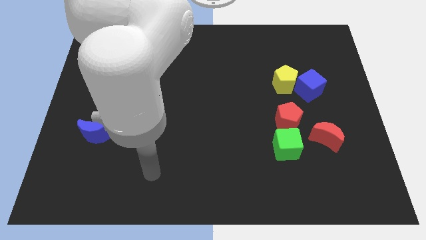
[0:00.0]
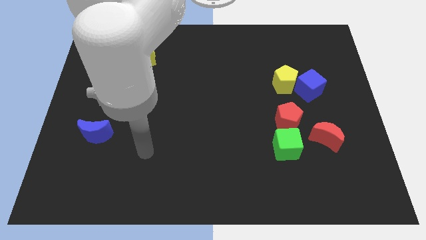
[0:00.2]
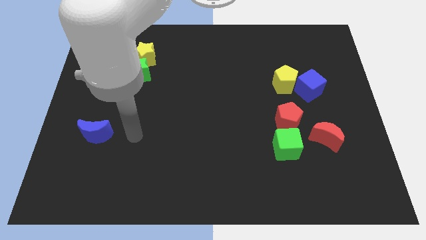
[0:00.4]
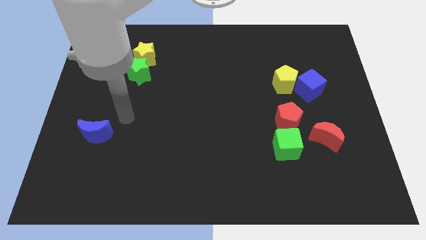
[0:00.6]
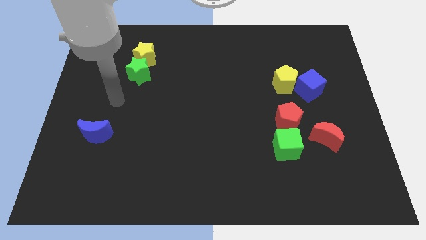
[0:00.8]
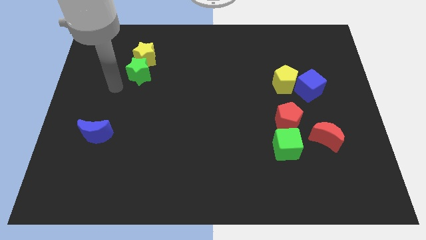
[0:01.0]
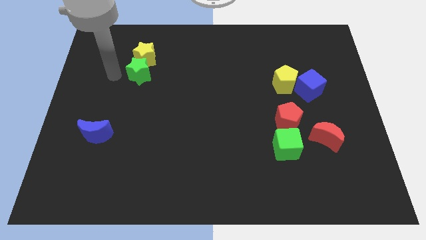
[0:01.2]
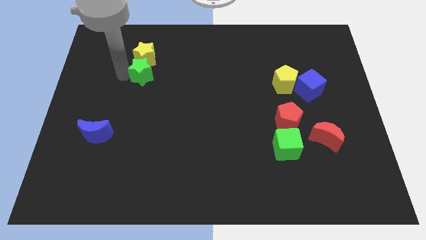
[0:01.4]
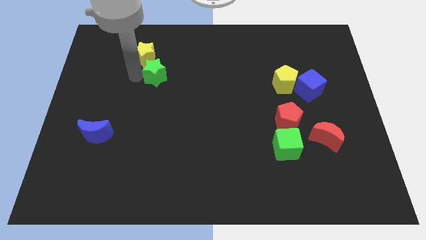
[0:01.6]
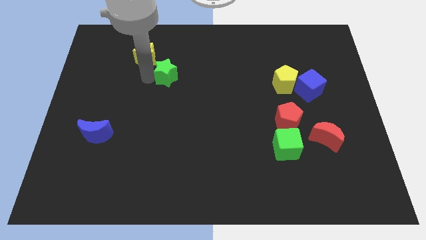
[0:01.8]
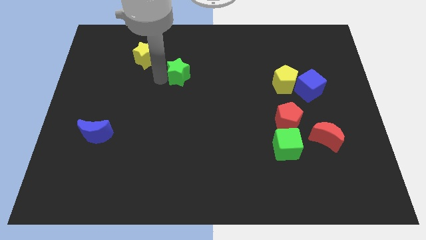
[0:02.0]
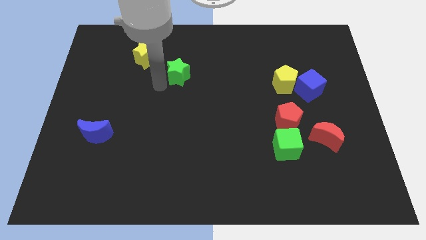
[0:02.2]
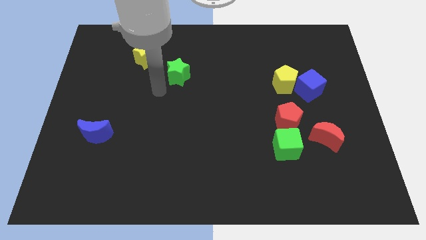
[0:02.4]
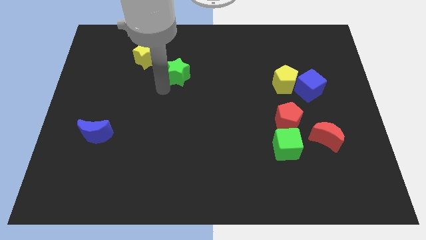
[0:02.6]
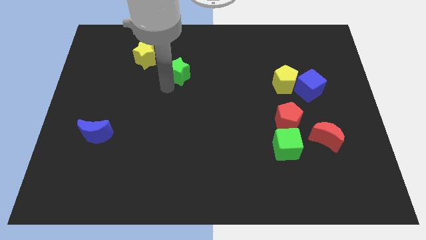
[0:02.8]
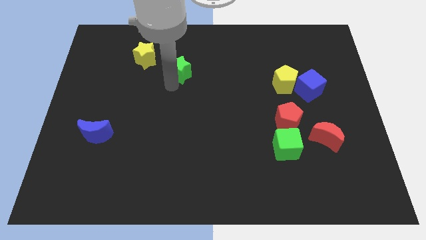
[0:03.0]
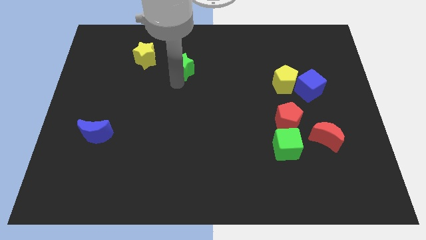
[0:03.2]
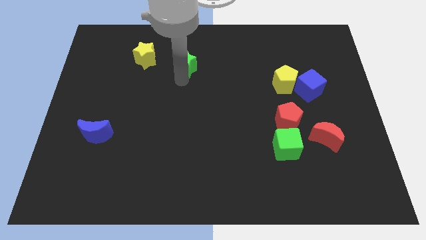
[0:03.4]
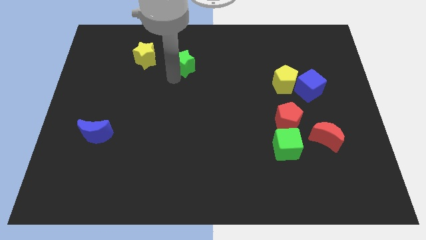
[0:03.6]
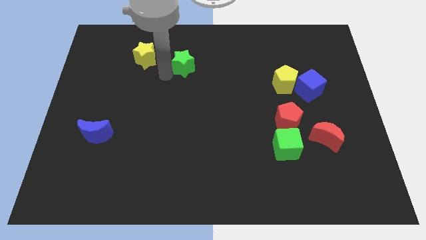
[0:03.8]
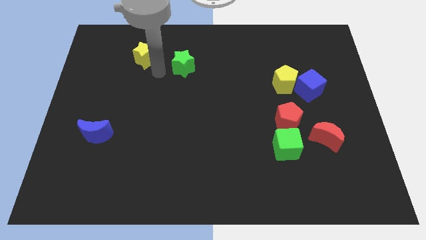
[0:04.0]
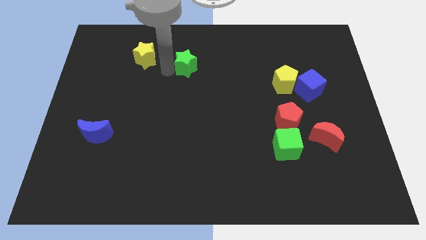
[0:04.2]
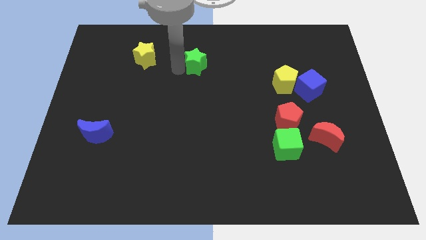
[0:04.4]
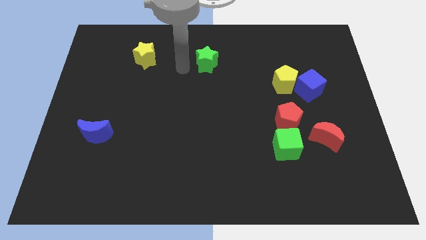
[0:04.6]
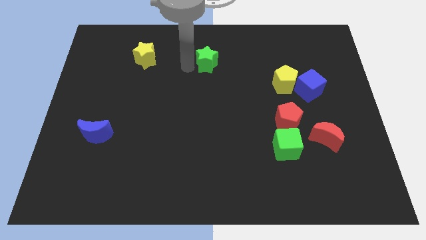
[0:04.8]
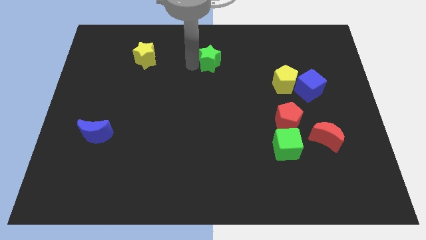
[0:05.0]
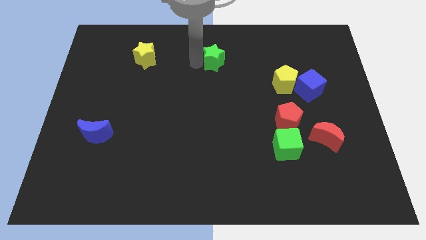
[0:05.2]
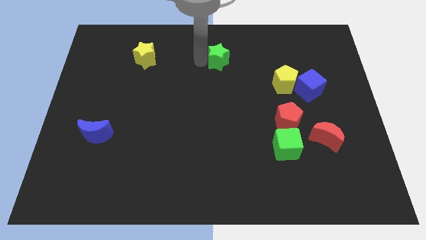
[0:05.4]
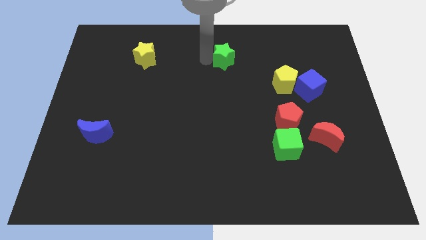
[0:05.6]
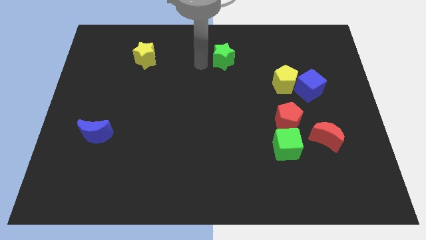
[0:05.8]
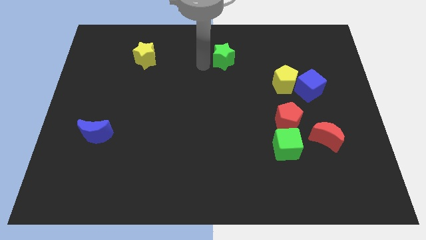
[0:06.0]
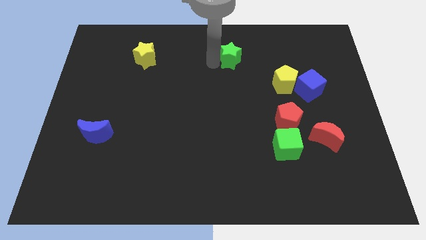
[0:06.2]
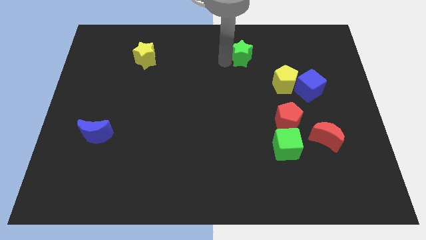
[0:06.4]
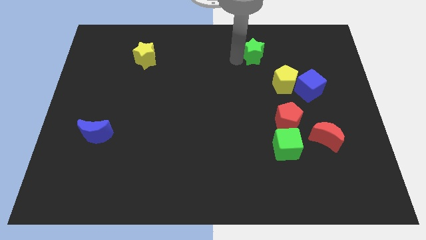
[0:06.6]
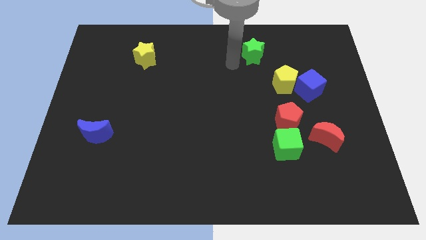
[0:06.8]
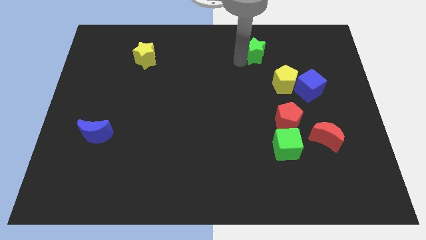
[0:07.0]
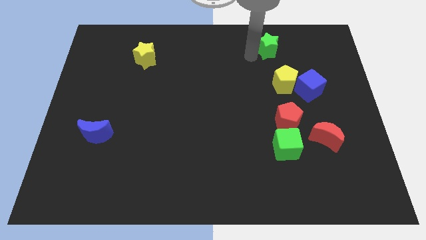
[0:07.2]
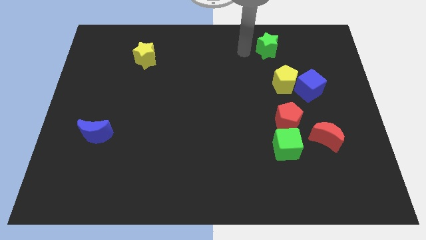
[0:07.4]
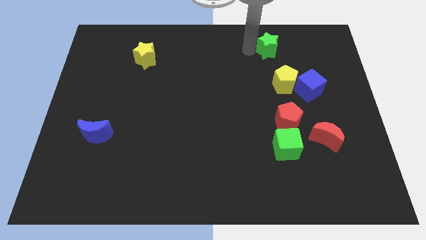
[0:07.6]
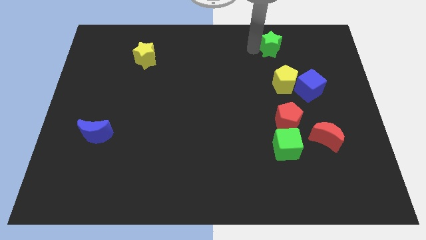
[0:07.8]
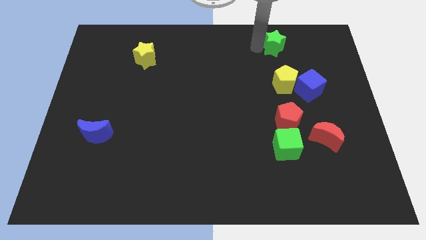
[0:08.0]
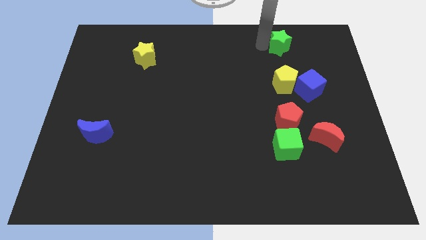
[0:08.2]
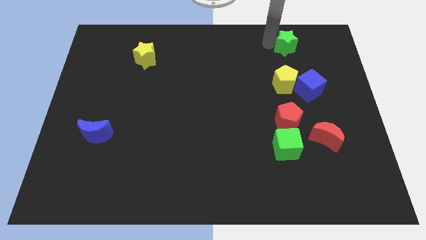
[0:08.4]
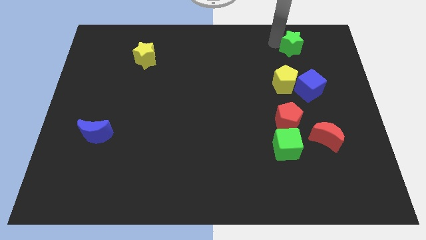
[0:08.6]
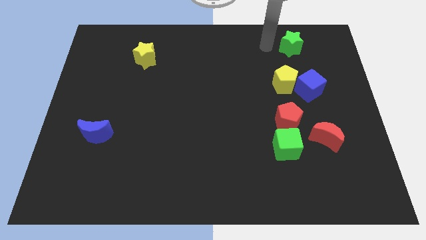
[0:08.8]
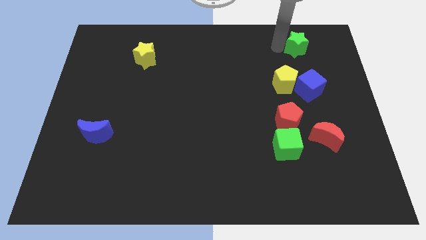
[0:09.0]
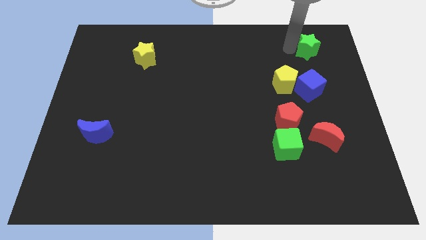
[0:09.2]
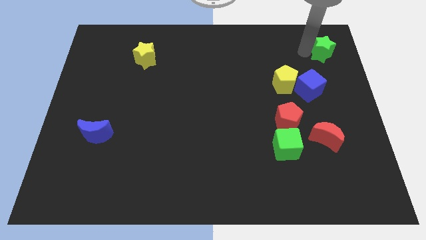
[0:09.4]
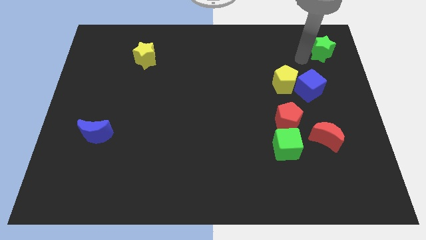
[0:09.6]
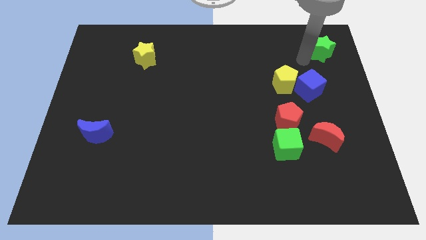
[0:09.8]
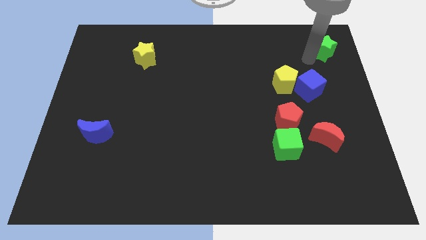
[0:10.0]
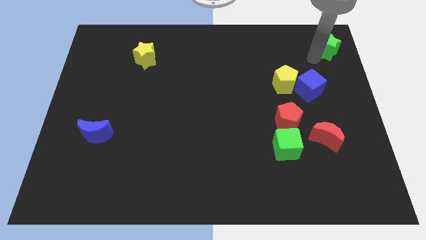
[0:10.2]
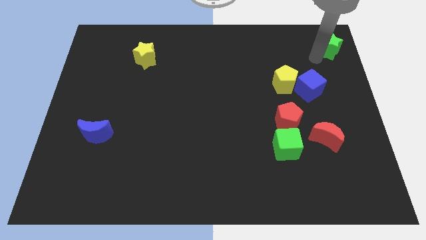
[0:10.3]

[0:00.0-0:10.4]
move the green star to the top right corner

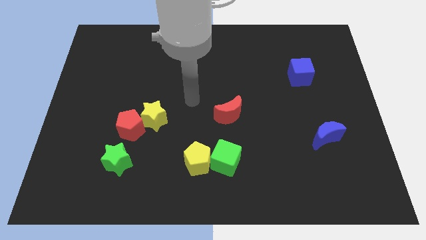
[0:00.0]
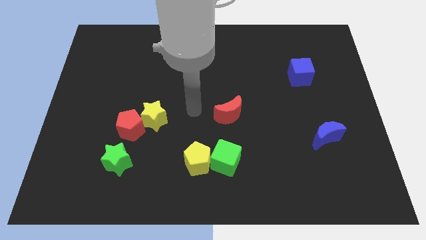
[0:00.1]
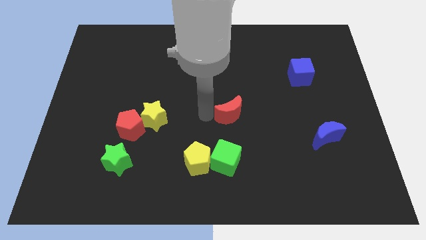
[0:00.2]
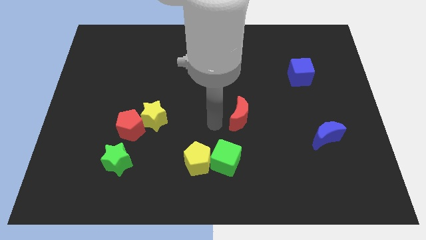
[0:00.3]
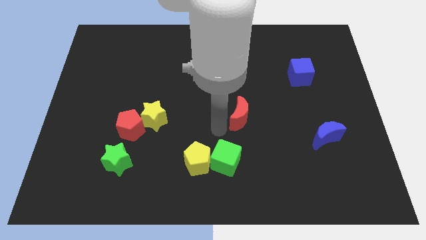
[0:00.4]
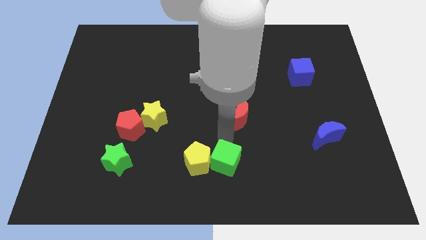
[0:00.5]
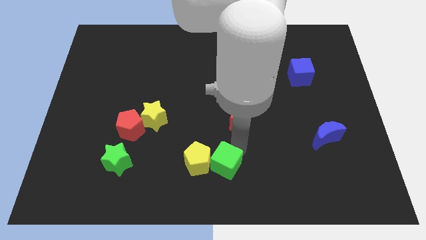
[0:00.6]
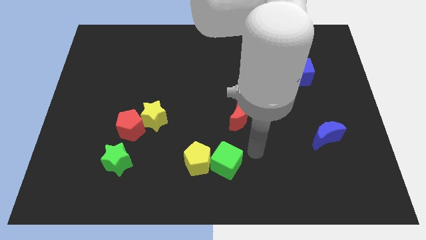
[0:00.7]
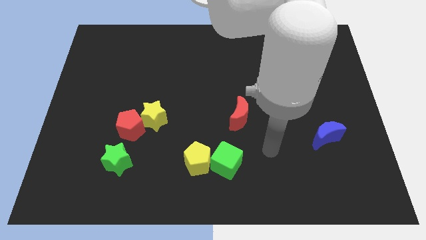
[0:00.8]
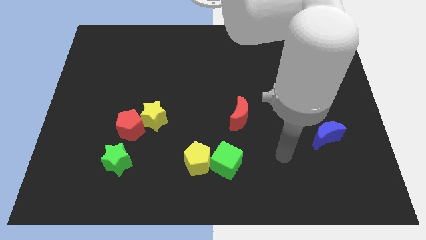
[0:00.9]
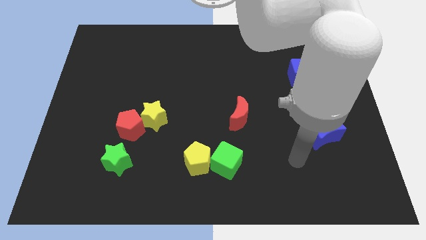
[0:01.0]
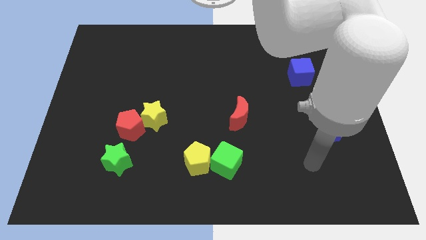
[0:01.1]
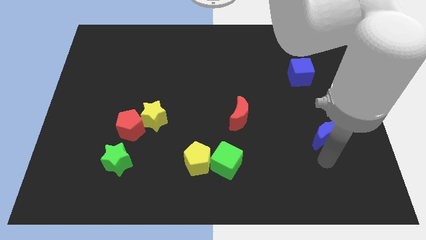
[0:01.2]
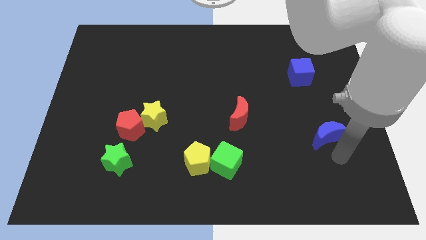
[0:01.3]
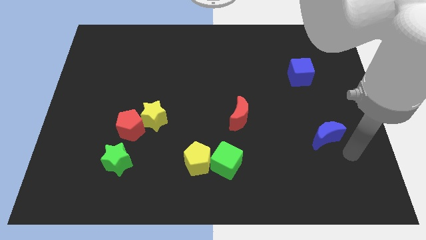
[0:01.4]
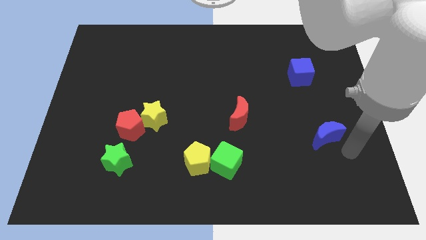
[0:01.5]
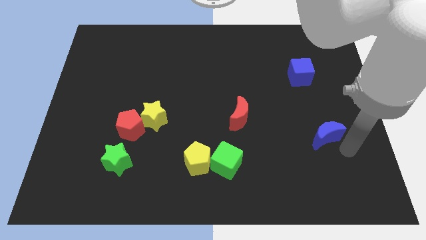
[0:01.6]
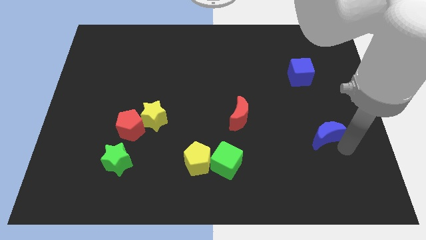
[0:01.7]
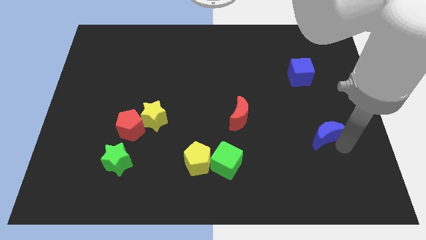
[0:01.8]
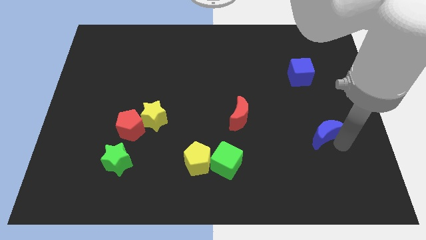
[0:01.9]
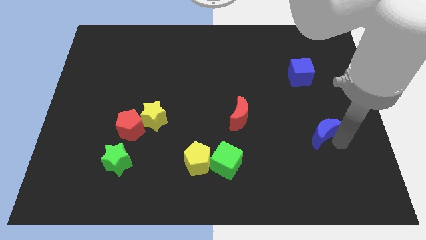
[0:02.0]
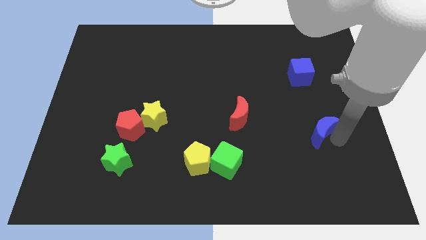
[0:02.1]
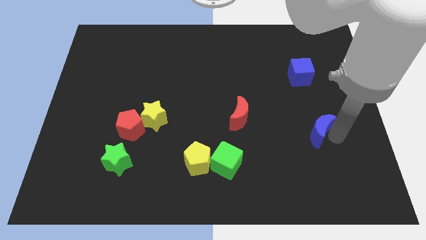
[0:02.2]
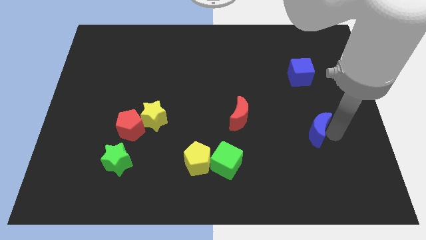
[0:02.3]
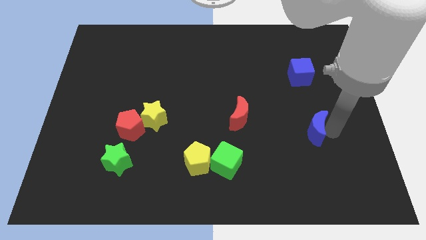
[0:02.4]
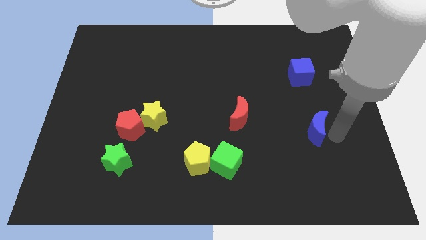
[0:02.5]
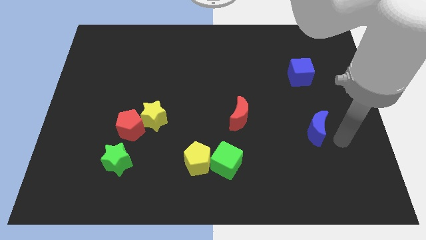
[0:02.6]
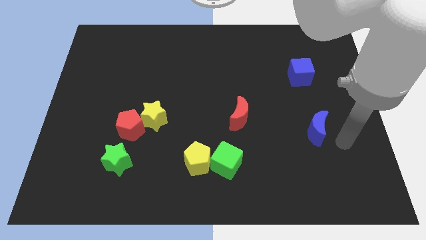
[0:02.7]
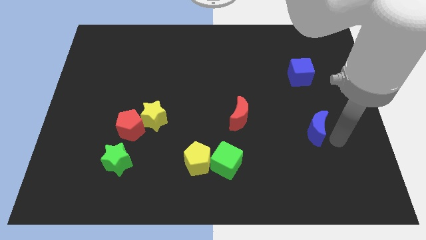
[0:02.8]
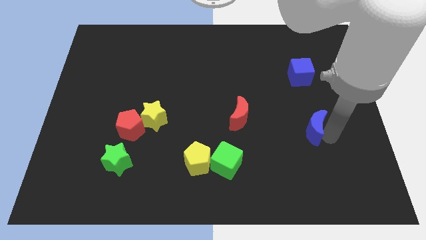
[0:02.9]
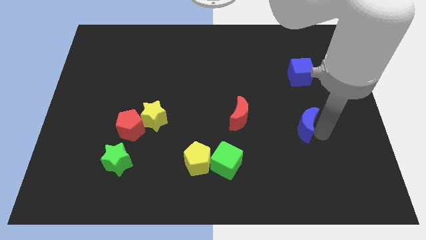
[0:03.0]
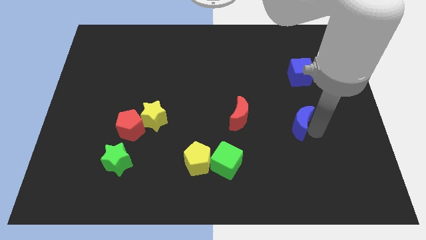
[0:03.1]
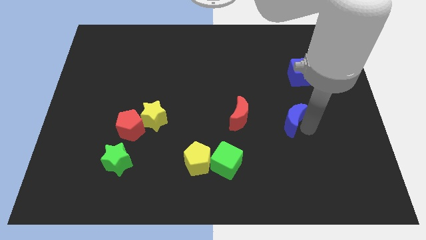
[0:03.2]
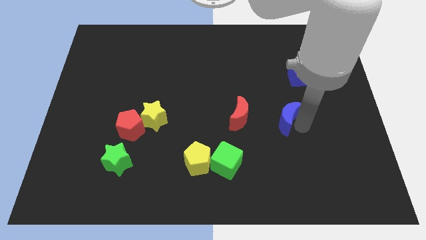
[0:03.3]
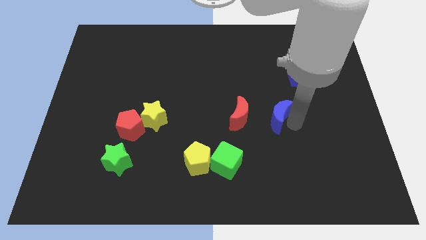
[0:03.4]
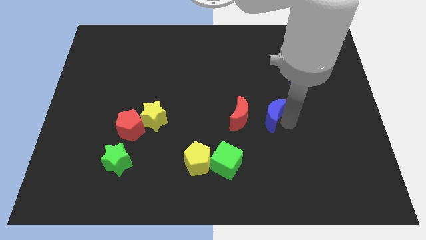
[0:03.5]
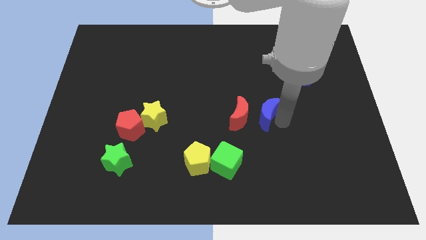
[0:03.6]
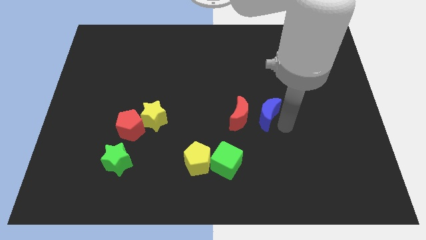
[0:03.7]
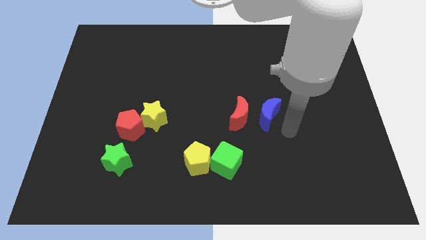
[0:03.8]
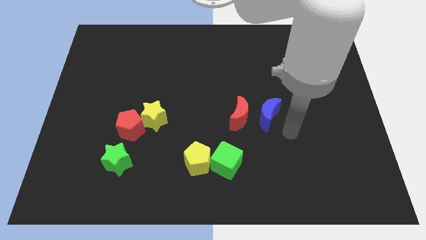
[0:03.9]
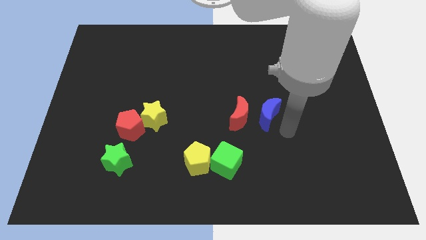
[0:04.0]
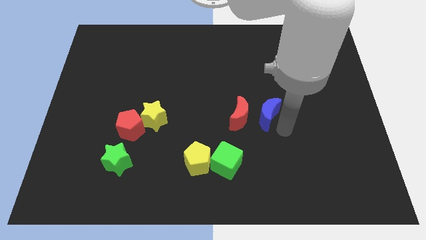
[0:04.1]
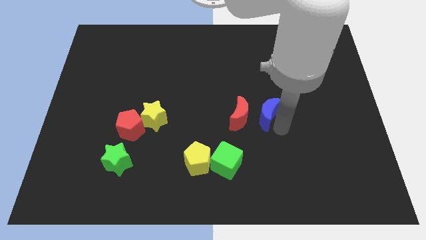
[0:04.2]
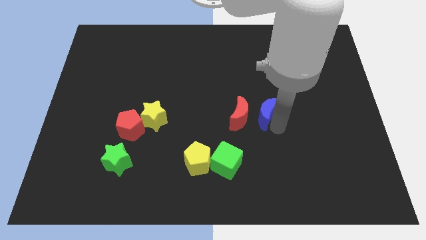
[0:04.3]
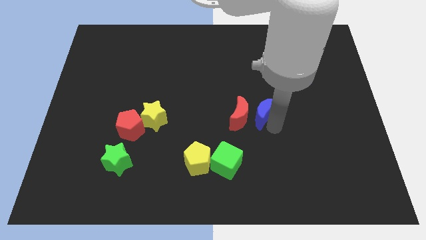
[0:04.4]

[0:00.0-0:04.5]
put the blue moon to the center of the board
